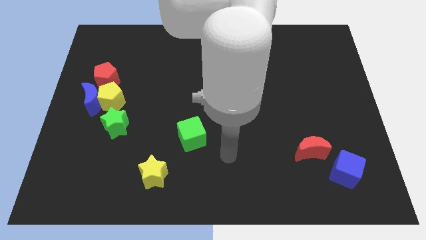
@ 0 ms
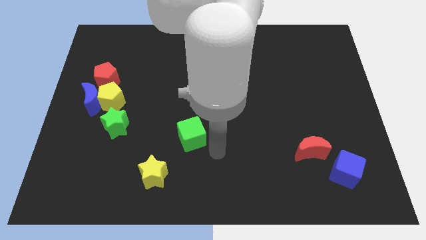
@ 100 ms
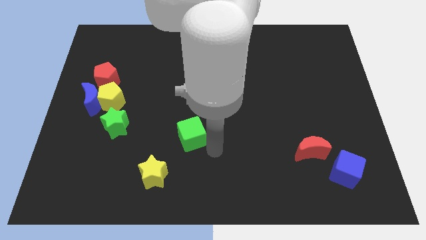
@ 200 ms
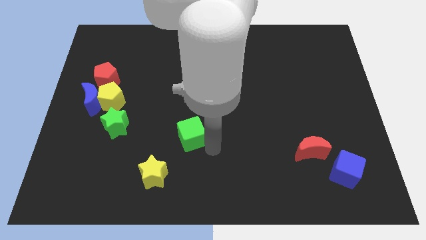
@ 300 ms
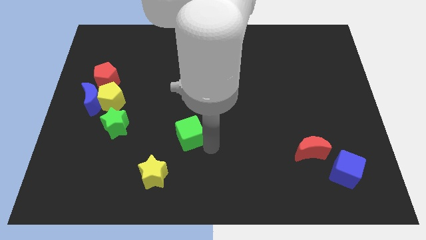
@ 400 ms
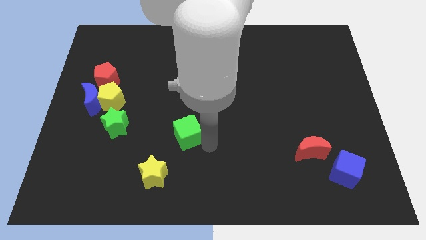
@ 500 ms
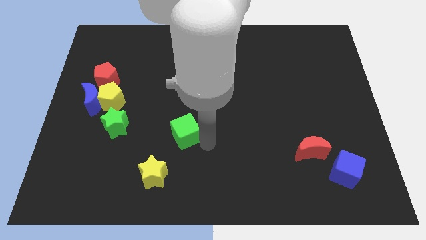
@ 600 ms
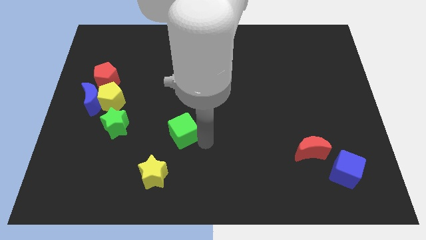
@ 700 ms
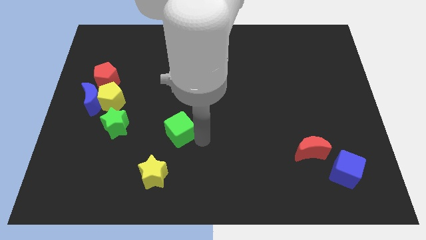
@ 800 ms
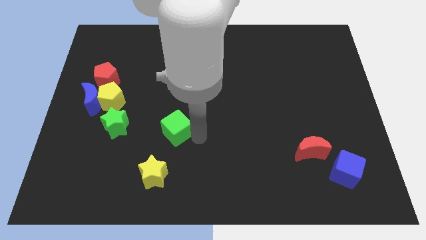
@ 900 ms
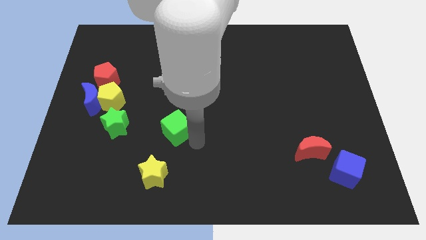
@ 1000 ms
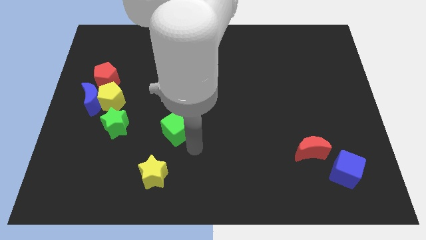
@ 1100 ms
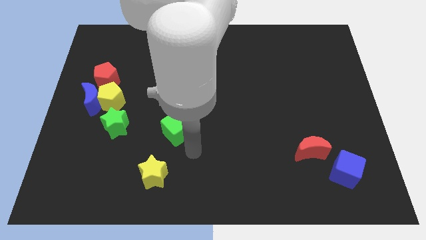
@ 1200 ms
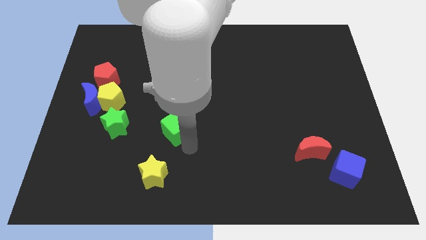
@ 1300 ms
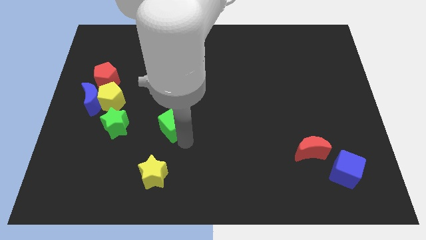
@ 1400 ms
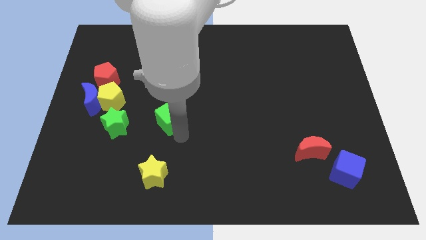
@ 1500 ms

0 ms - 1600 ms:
push the green cube diagonally up and to the left somewhat

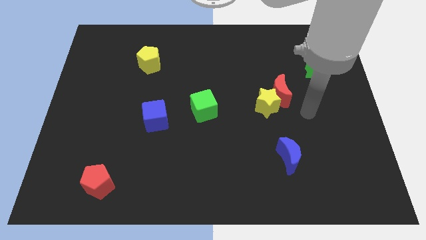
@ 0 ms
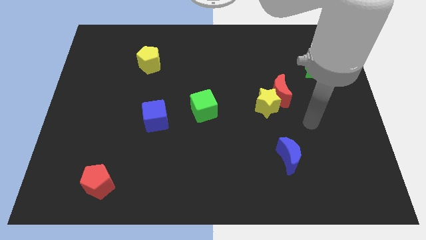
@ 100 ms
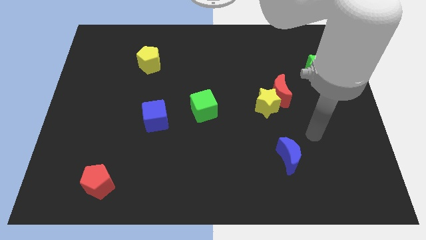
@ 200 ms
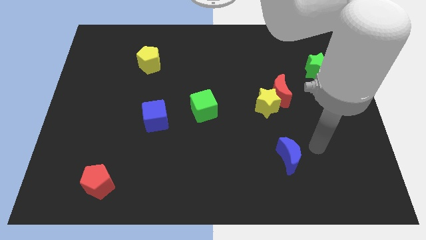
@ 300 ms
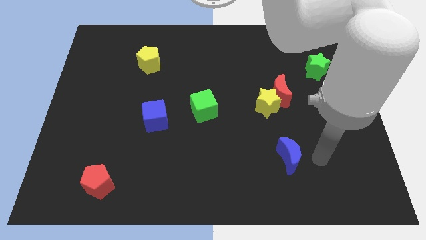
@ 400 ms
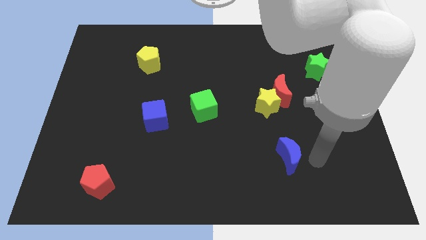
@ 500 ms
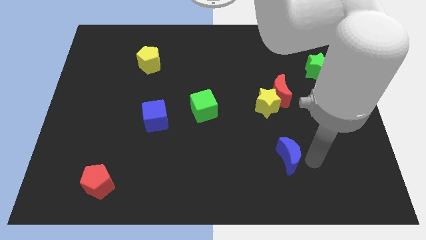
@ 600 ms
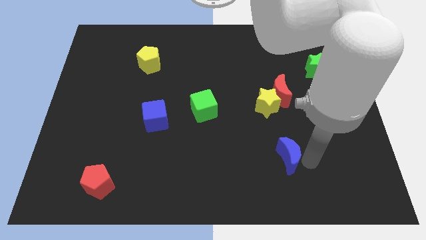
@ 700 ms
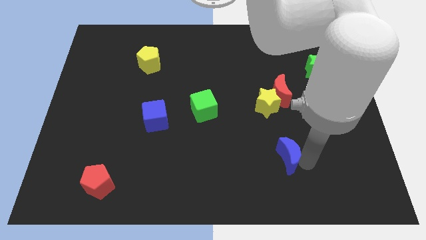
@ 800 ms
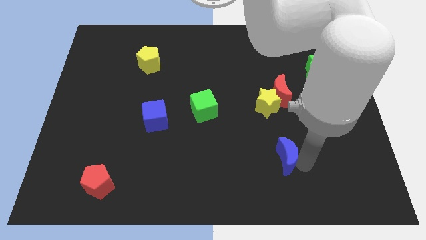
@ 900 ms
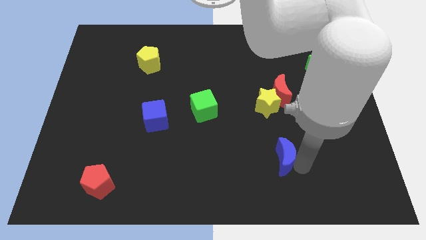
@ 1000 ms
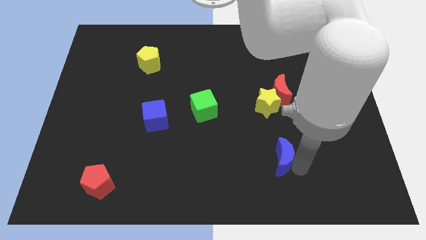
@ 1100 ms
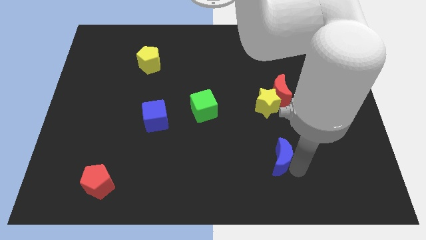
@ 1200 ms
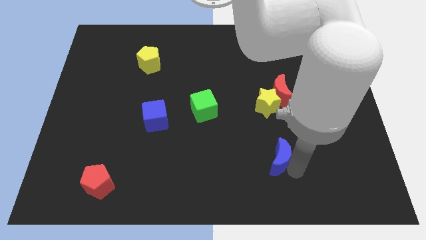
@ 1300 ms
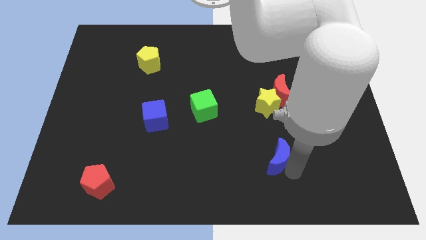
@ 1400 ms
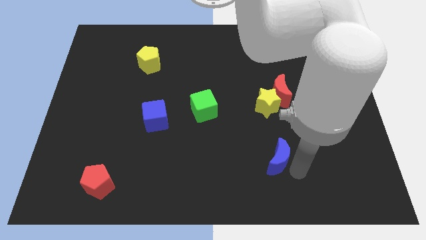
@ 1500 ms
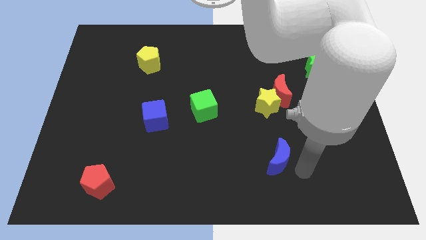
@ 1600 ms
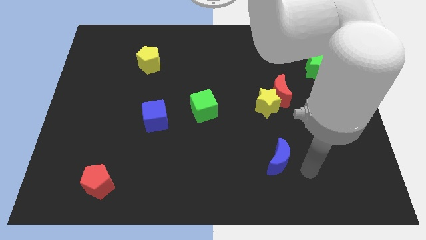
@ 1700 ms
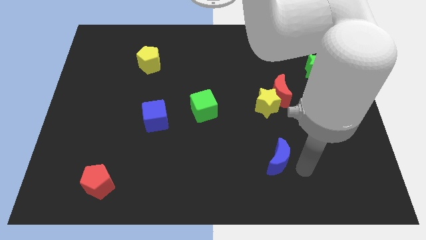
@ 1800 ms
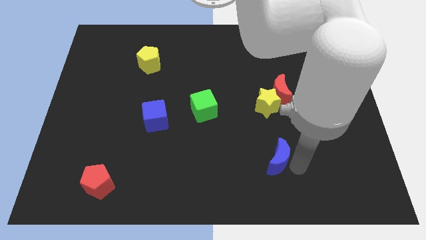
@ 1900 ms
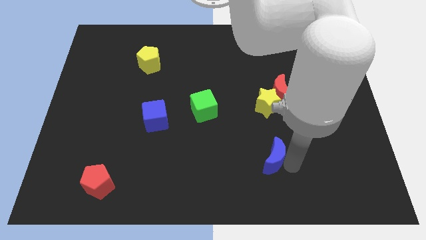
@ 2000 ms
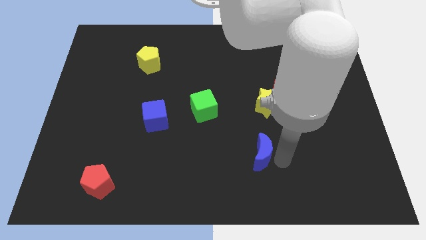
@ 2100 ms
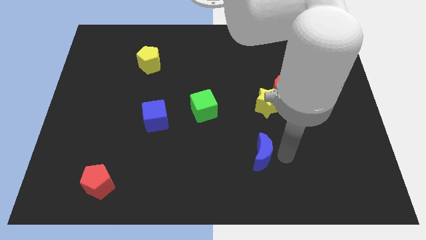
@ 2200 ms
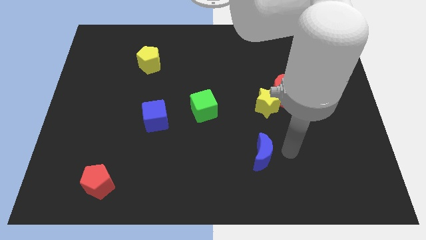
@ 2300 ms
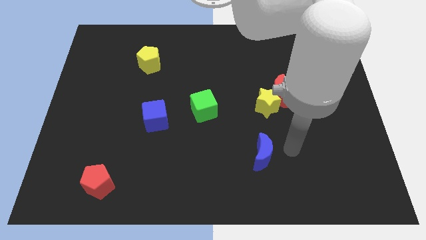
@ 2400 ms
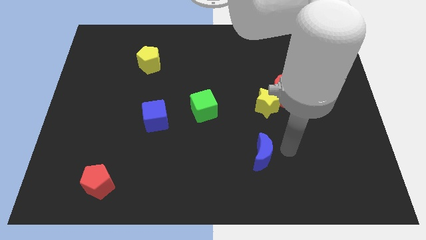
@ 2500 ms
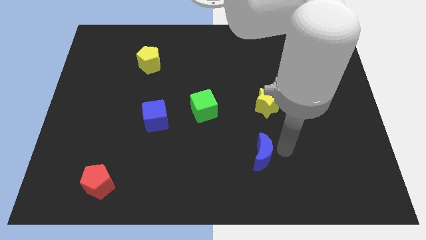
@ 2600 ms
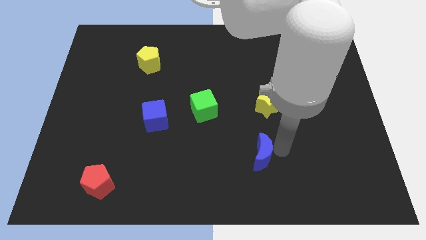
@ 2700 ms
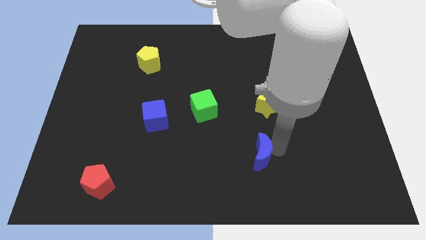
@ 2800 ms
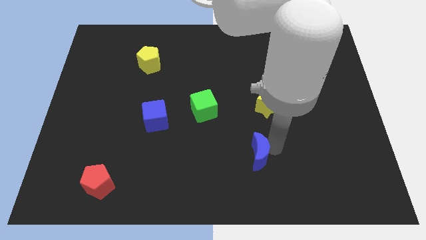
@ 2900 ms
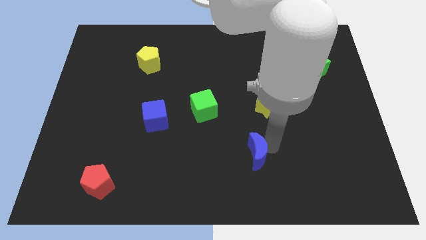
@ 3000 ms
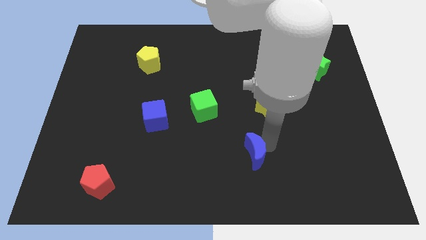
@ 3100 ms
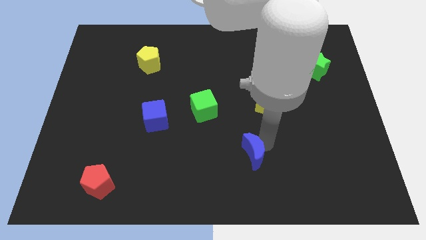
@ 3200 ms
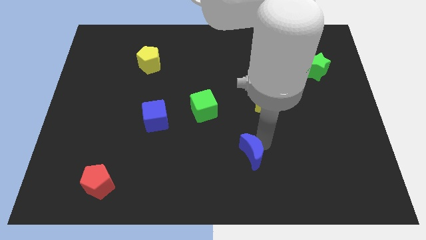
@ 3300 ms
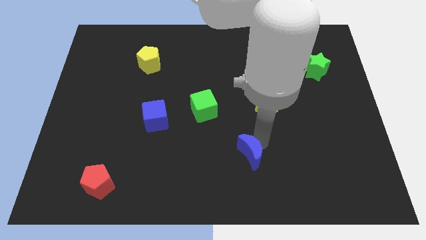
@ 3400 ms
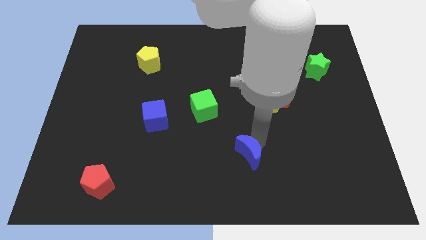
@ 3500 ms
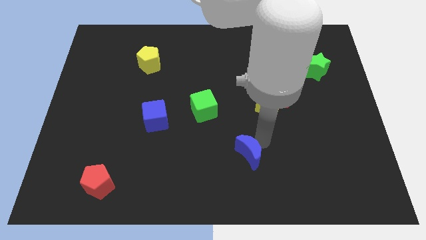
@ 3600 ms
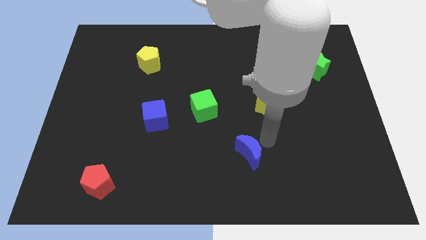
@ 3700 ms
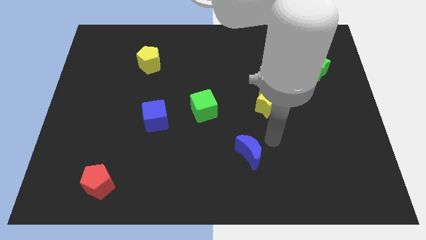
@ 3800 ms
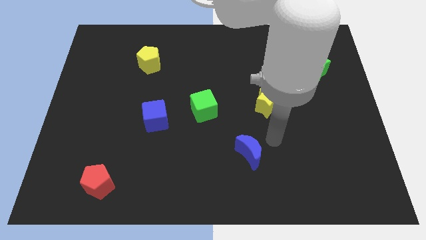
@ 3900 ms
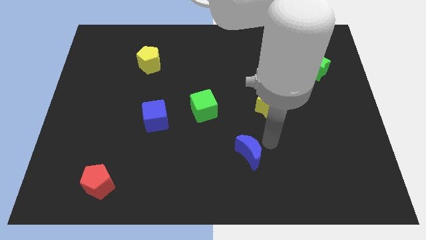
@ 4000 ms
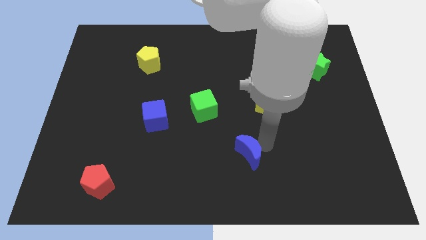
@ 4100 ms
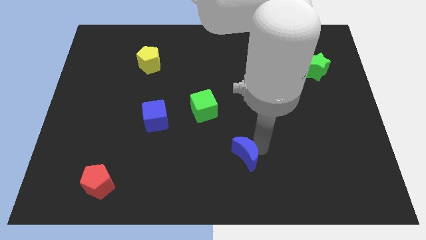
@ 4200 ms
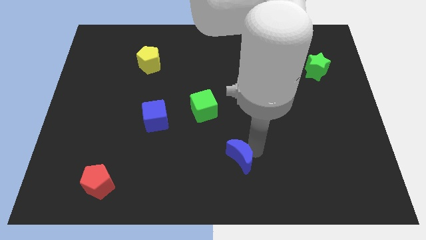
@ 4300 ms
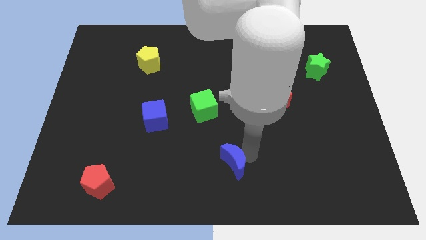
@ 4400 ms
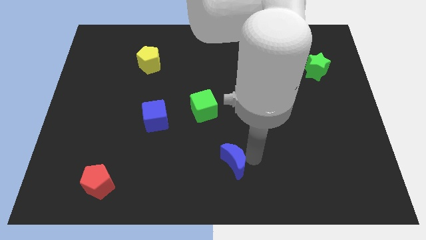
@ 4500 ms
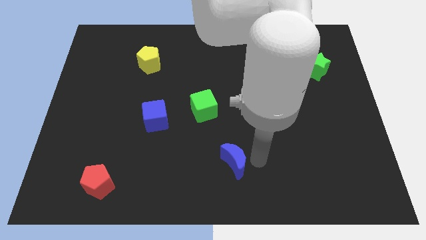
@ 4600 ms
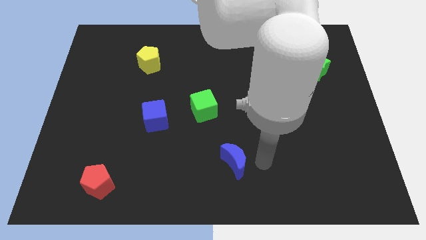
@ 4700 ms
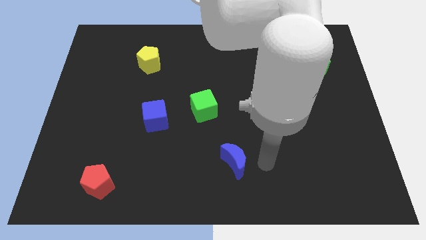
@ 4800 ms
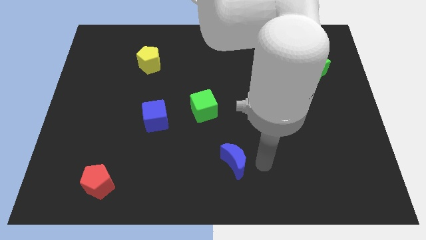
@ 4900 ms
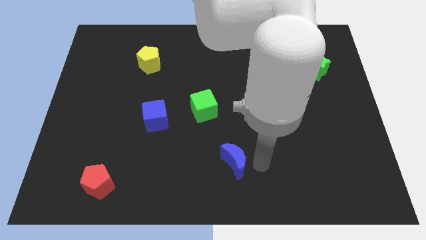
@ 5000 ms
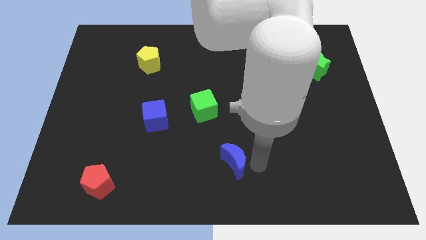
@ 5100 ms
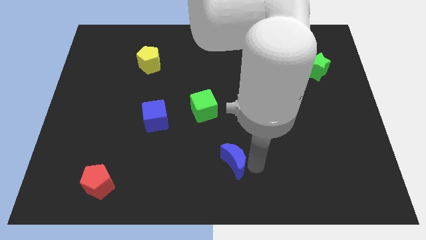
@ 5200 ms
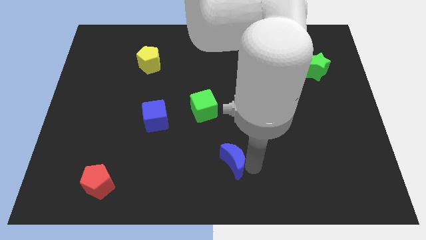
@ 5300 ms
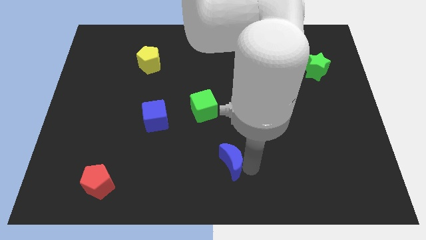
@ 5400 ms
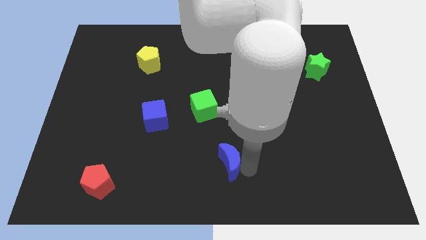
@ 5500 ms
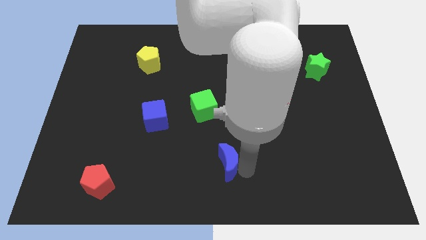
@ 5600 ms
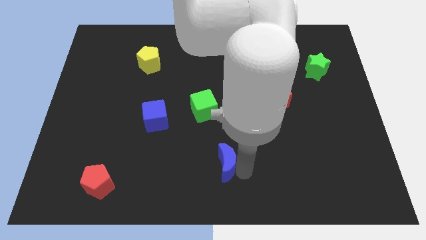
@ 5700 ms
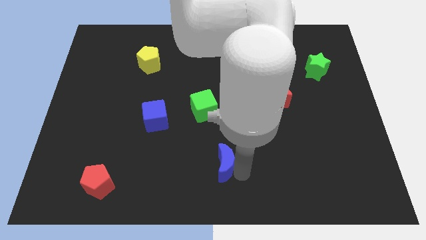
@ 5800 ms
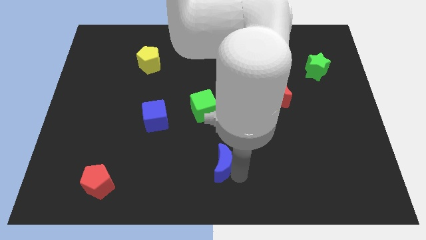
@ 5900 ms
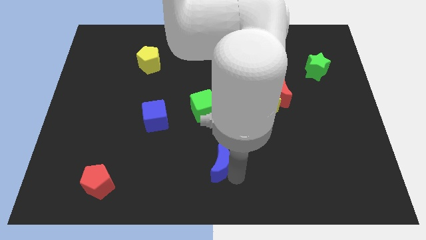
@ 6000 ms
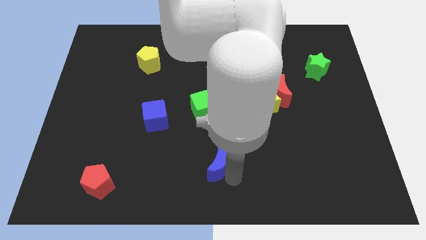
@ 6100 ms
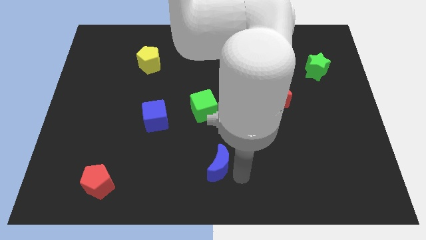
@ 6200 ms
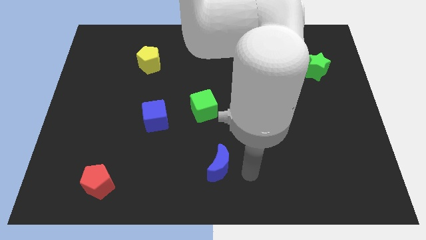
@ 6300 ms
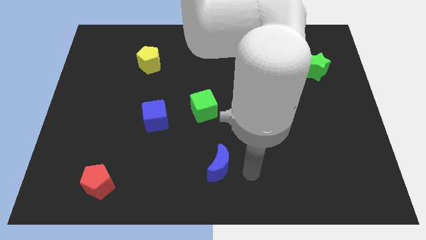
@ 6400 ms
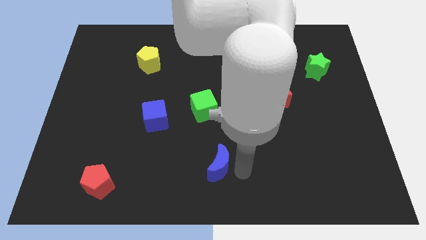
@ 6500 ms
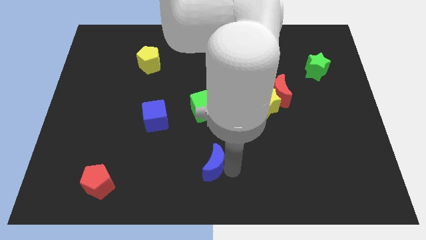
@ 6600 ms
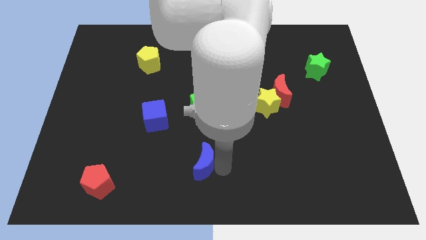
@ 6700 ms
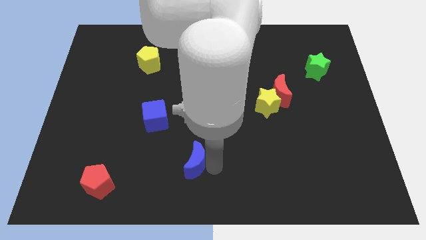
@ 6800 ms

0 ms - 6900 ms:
slide the blue moon to the left
